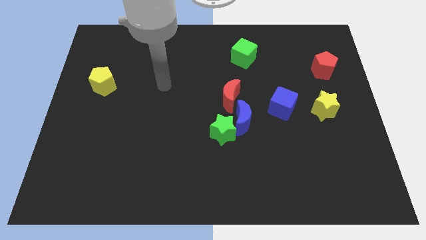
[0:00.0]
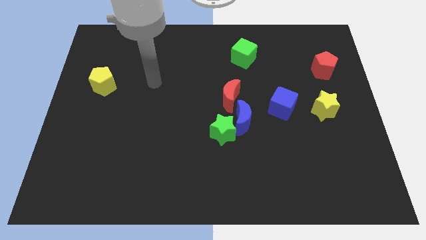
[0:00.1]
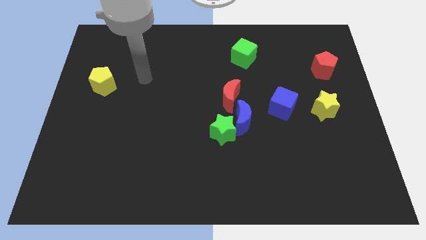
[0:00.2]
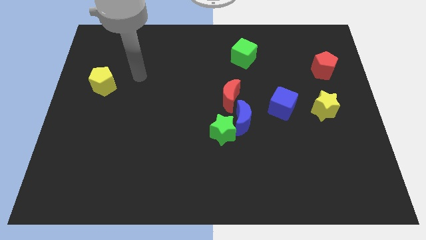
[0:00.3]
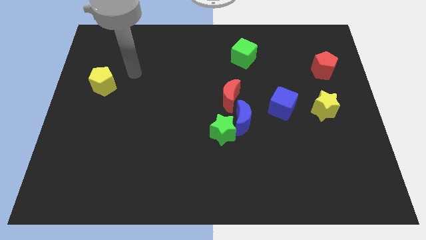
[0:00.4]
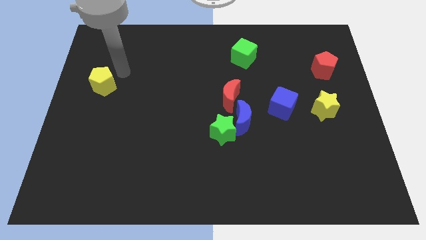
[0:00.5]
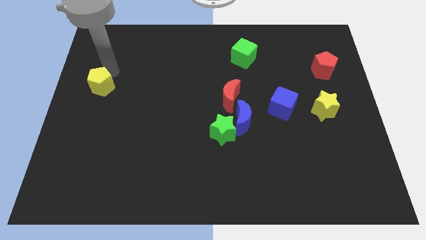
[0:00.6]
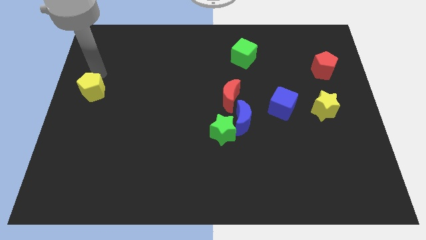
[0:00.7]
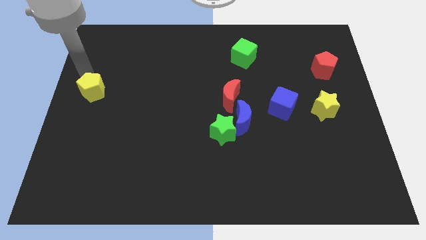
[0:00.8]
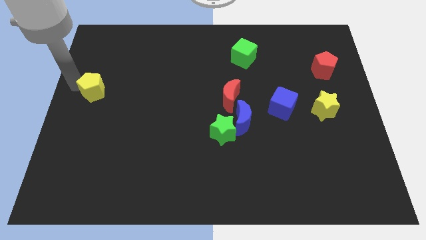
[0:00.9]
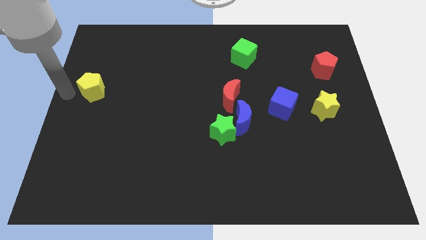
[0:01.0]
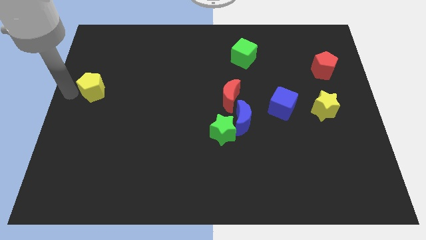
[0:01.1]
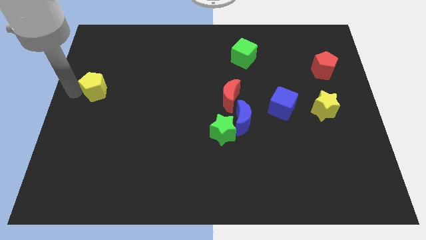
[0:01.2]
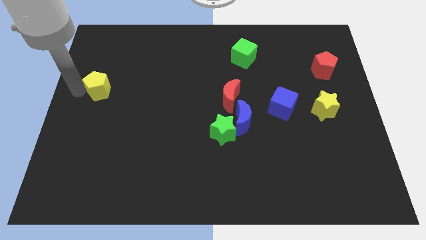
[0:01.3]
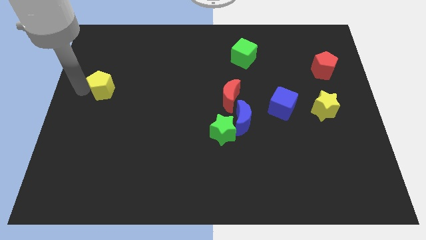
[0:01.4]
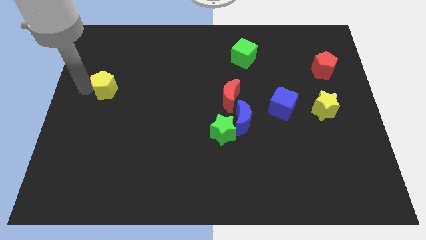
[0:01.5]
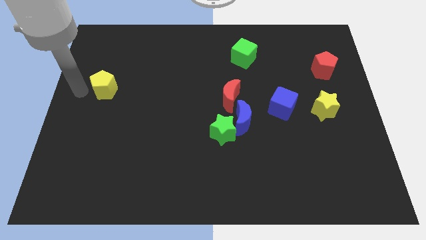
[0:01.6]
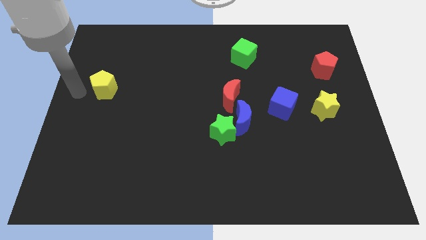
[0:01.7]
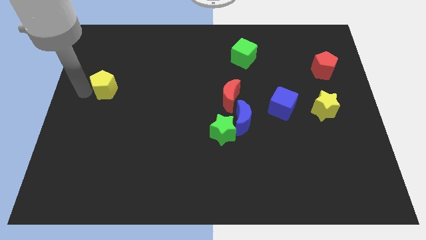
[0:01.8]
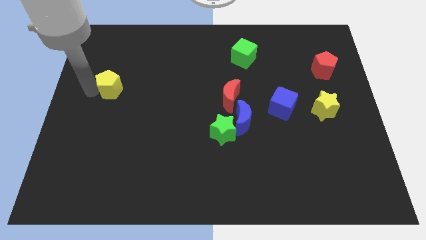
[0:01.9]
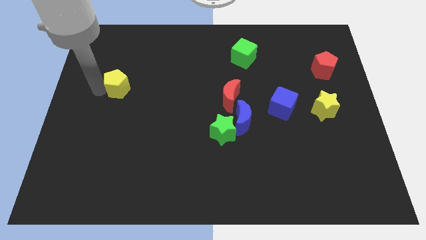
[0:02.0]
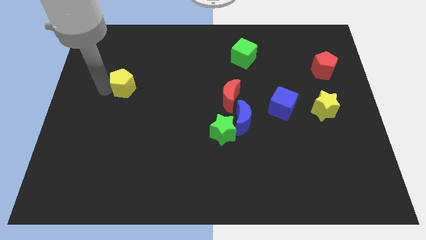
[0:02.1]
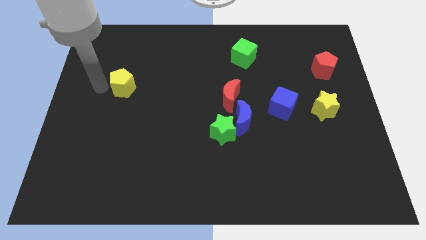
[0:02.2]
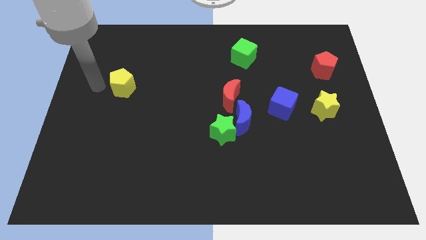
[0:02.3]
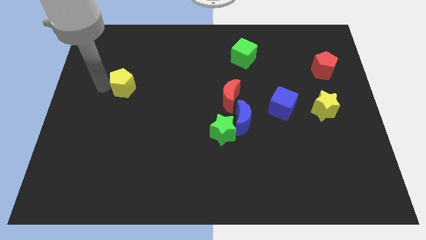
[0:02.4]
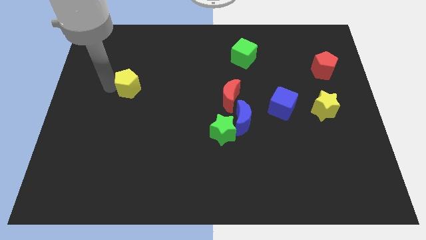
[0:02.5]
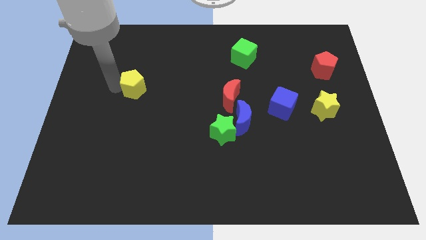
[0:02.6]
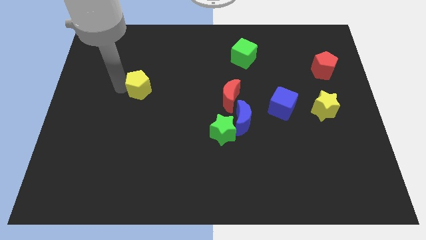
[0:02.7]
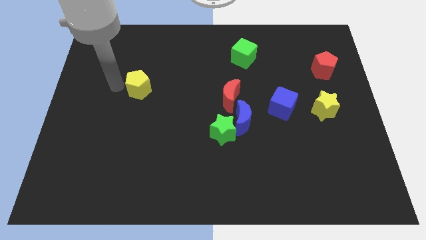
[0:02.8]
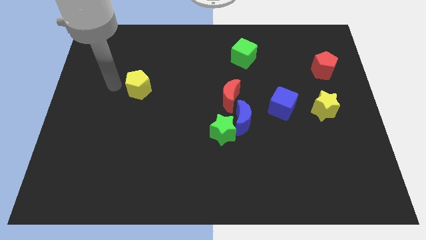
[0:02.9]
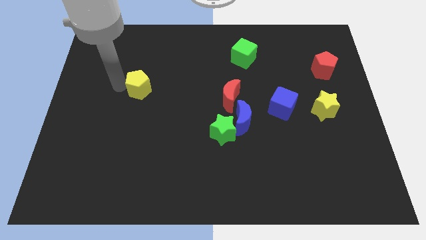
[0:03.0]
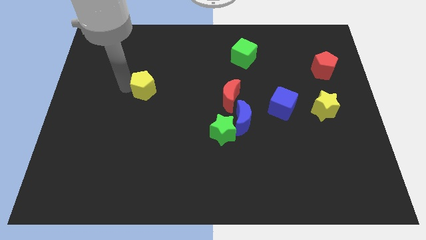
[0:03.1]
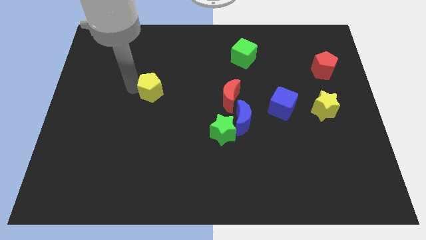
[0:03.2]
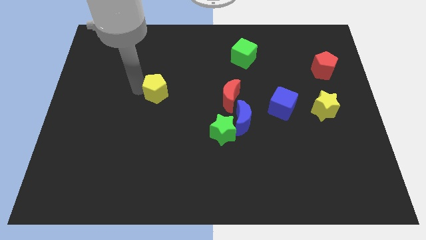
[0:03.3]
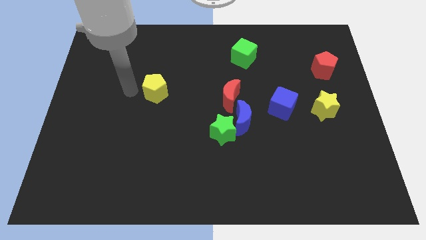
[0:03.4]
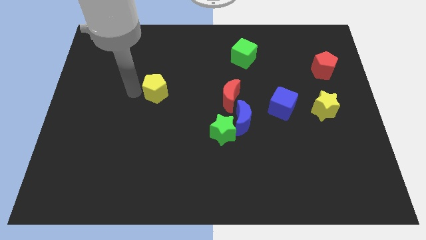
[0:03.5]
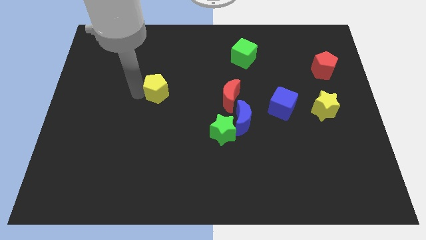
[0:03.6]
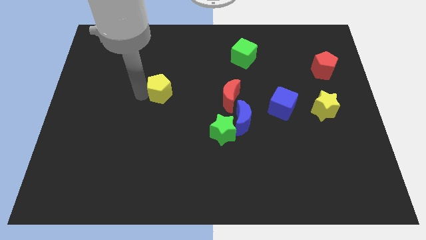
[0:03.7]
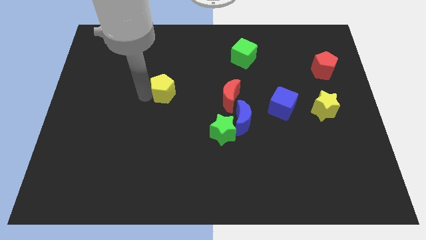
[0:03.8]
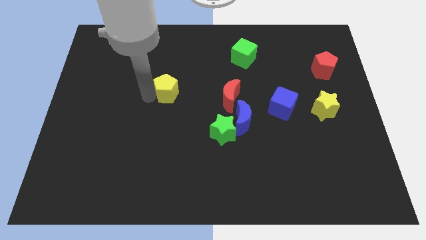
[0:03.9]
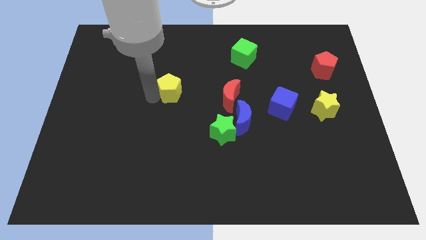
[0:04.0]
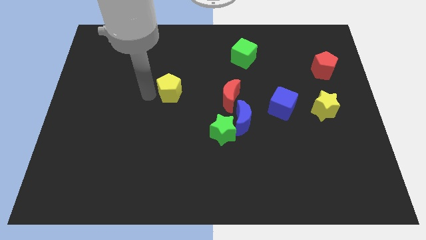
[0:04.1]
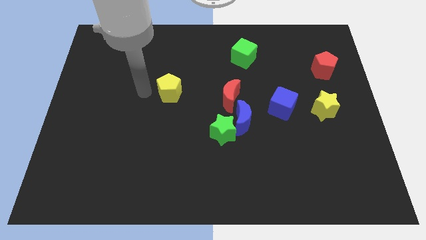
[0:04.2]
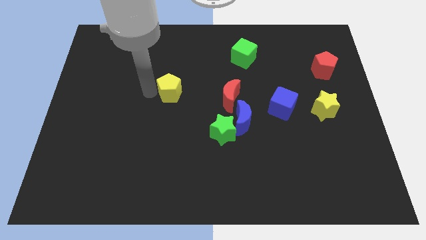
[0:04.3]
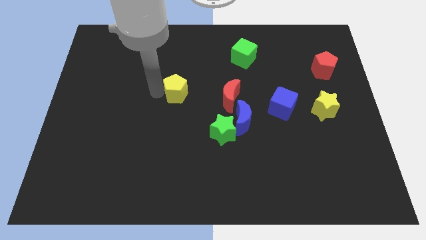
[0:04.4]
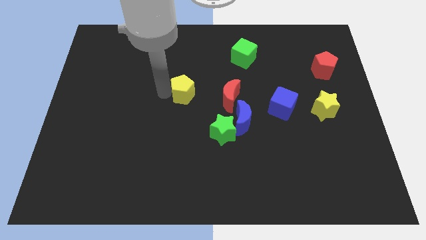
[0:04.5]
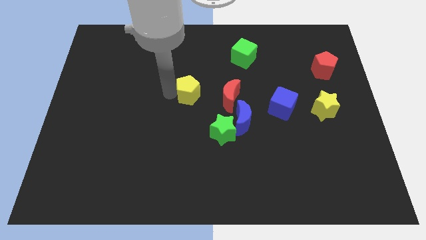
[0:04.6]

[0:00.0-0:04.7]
move the yellow pentagon to the right

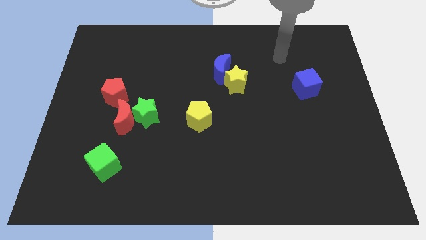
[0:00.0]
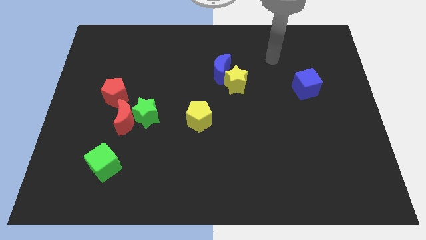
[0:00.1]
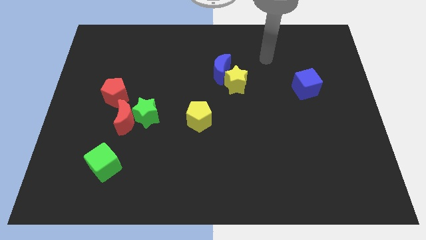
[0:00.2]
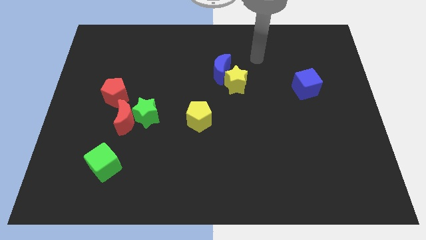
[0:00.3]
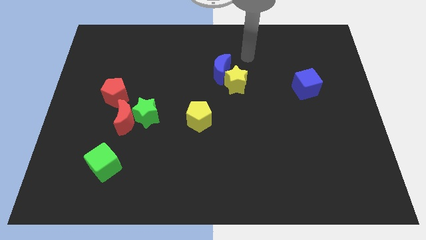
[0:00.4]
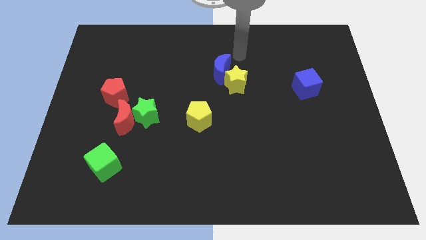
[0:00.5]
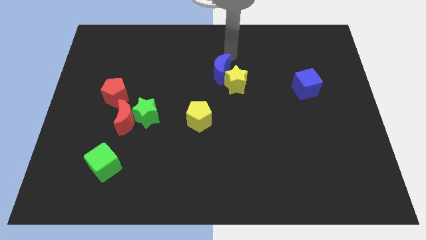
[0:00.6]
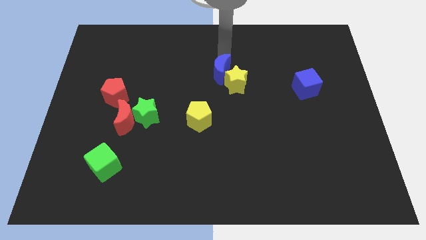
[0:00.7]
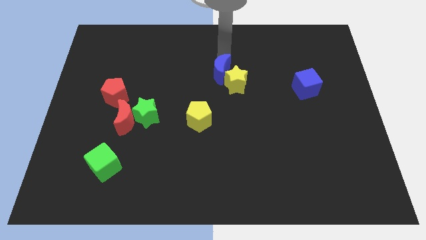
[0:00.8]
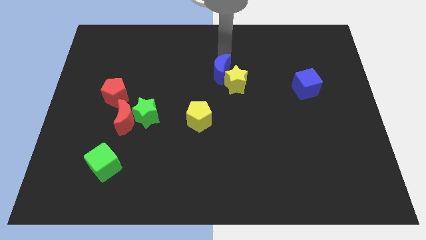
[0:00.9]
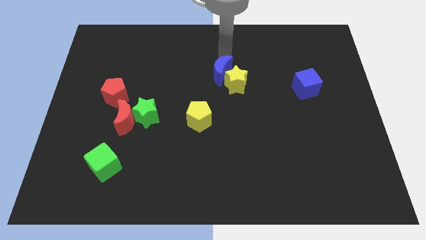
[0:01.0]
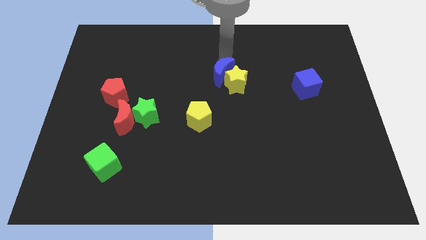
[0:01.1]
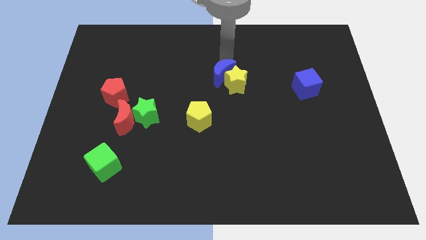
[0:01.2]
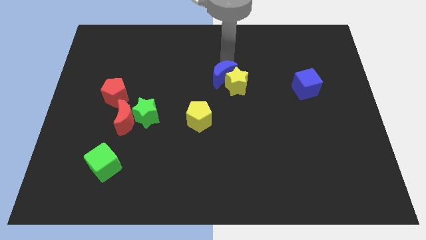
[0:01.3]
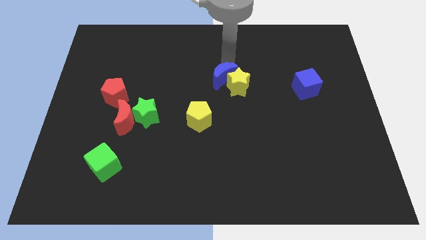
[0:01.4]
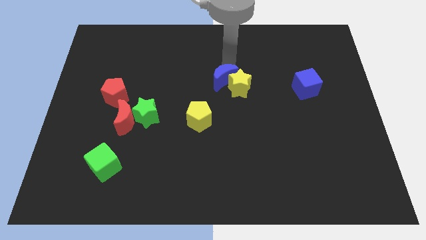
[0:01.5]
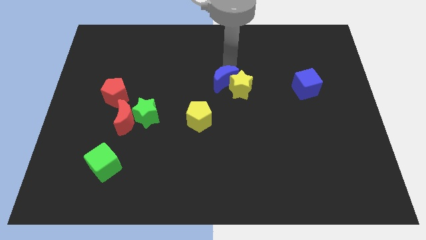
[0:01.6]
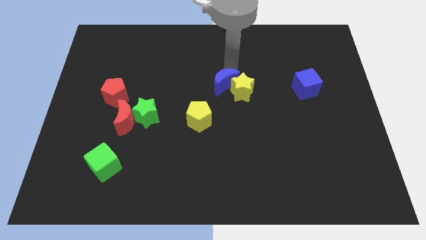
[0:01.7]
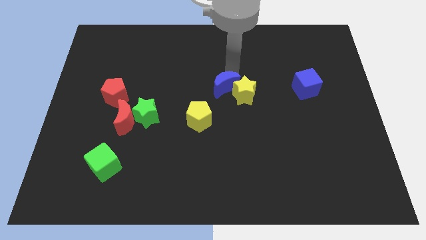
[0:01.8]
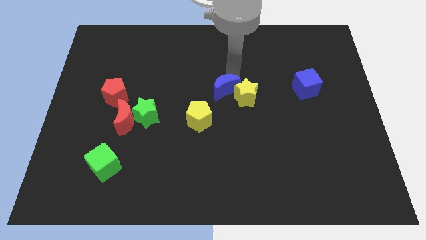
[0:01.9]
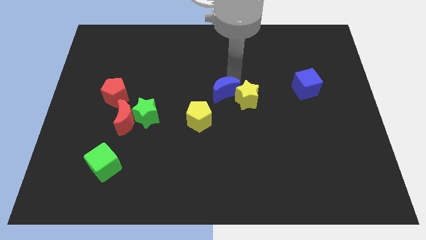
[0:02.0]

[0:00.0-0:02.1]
slightly move the blue moon downwards

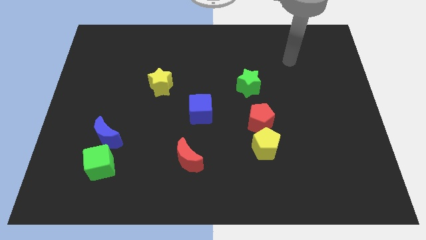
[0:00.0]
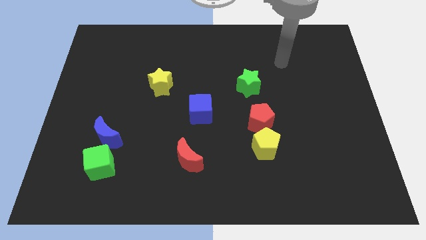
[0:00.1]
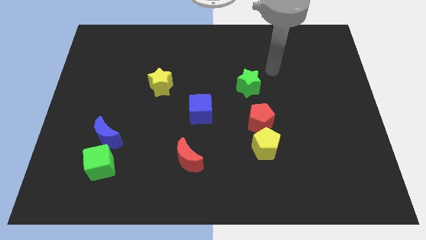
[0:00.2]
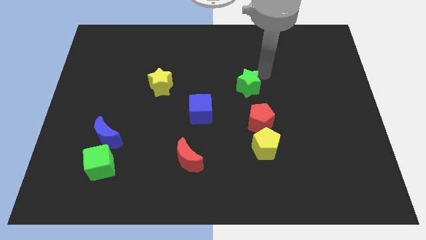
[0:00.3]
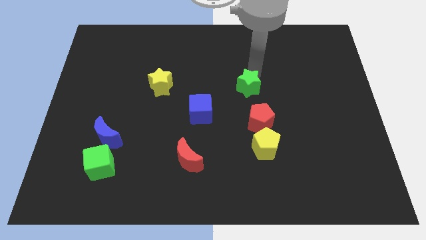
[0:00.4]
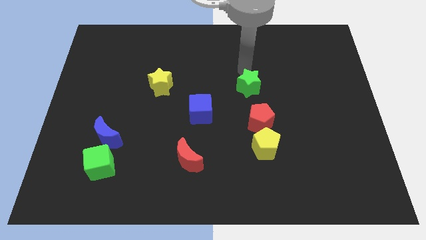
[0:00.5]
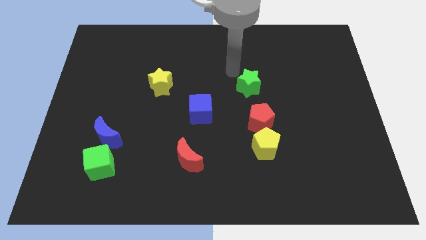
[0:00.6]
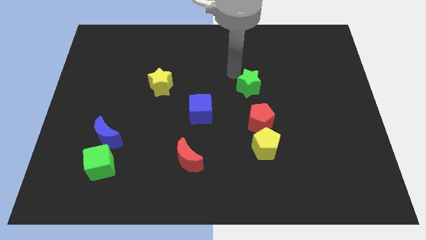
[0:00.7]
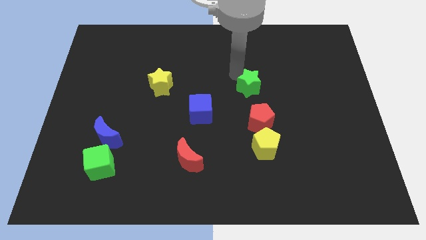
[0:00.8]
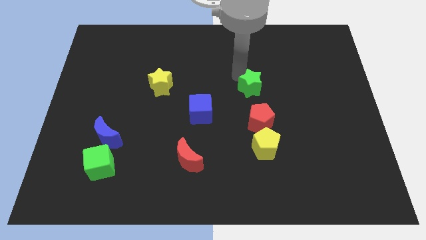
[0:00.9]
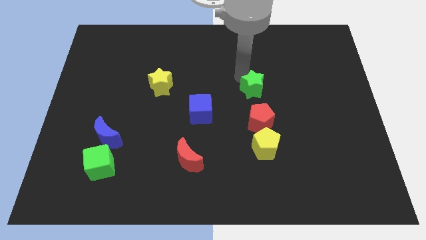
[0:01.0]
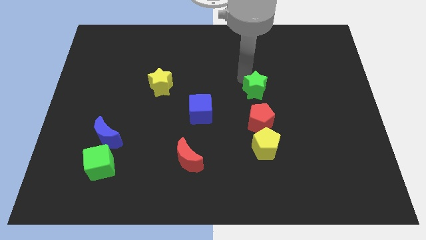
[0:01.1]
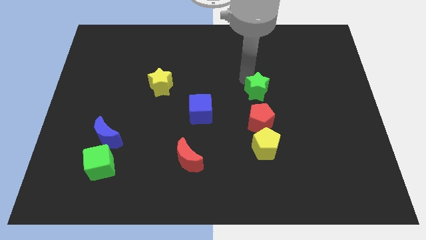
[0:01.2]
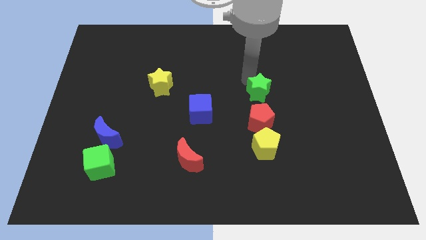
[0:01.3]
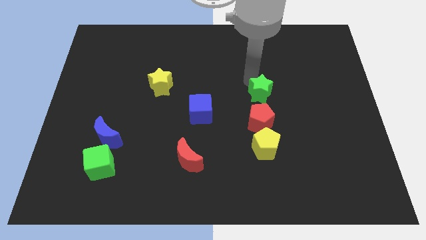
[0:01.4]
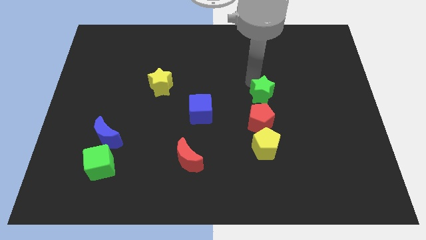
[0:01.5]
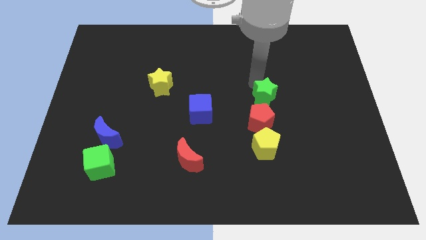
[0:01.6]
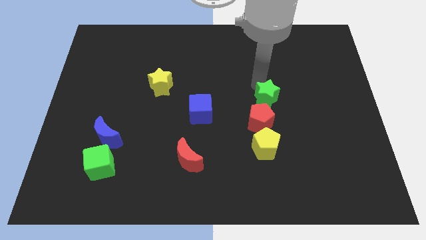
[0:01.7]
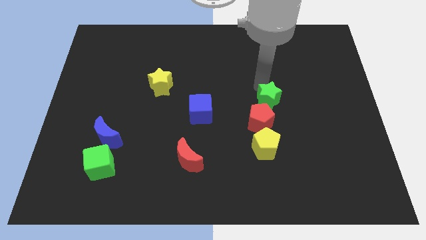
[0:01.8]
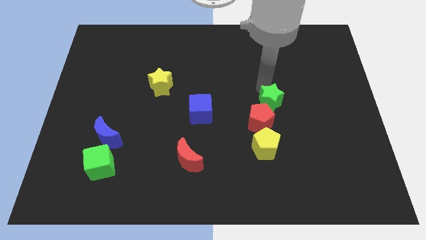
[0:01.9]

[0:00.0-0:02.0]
slide the green star slightly down and to the right
